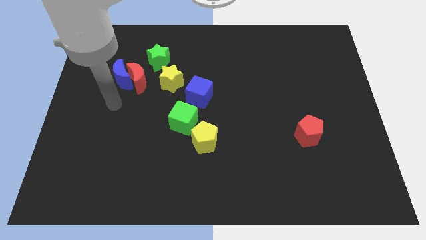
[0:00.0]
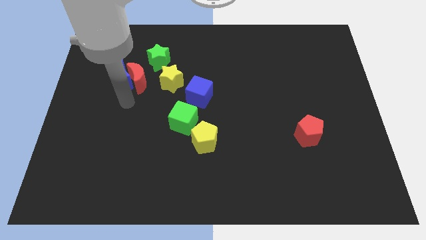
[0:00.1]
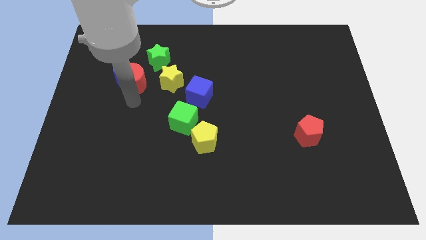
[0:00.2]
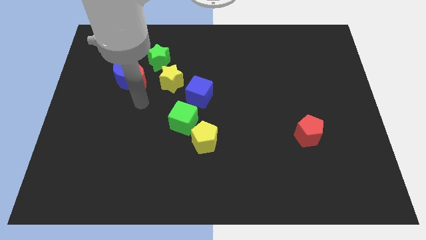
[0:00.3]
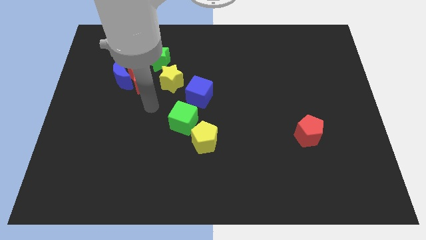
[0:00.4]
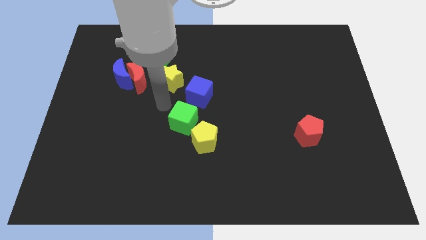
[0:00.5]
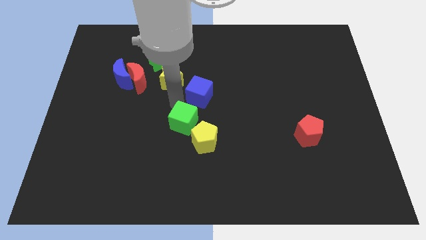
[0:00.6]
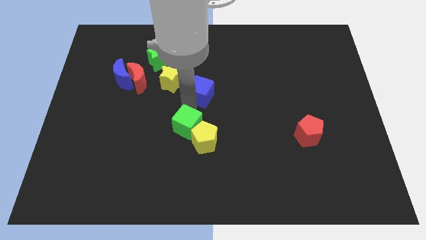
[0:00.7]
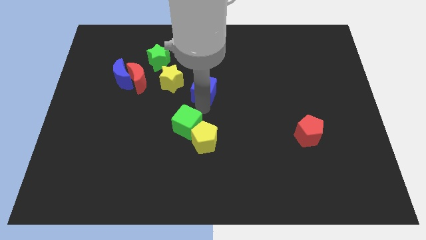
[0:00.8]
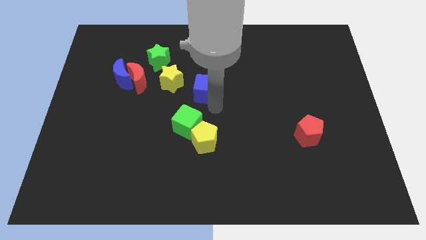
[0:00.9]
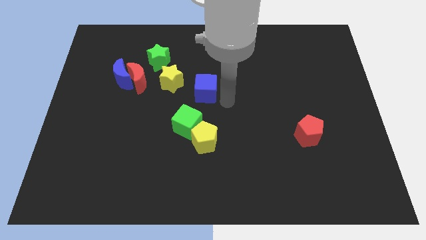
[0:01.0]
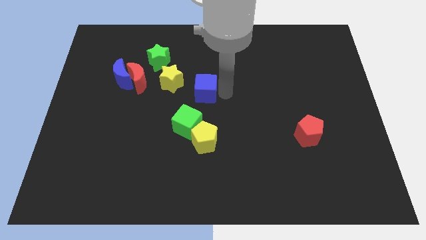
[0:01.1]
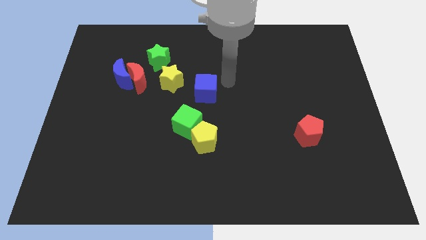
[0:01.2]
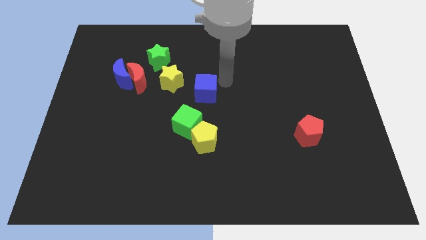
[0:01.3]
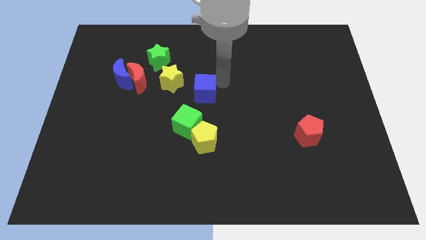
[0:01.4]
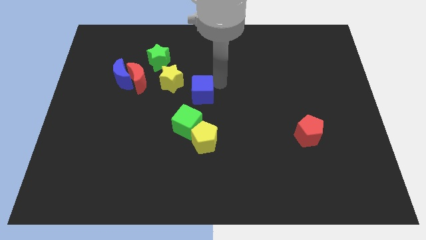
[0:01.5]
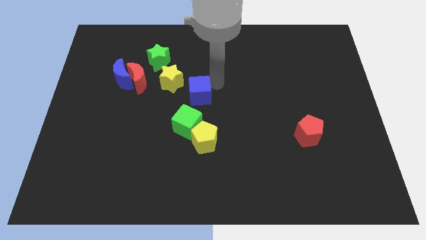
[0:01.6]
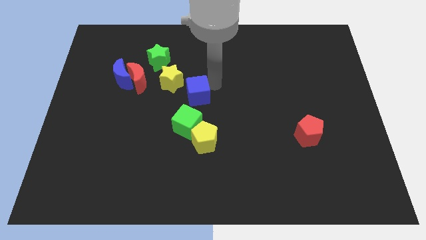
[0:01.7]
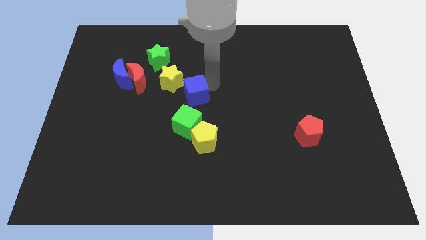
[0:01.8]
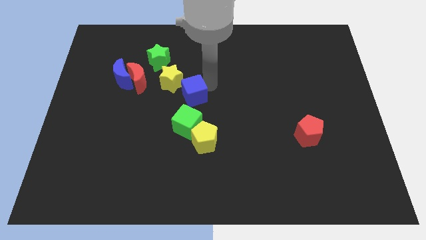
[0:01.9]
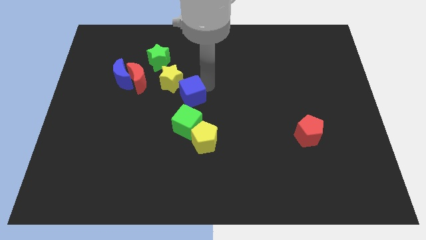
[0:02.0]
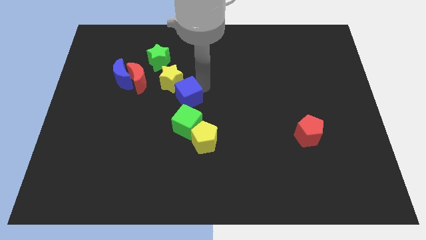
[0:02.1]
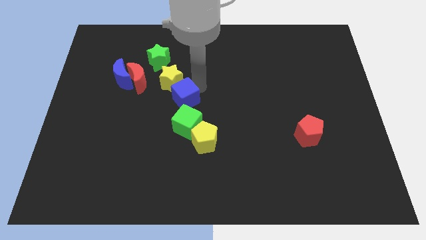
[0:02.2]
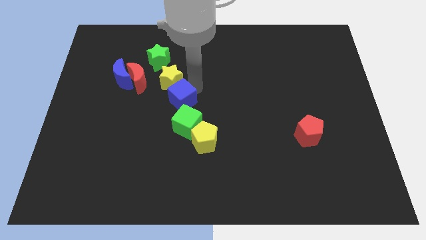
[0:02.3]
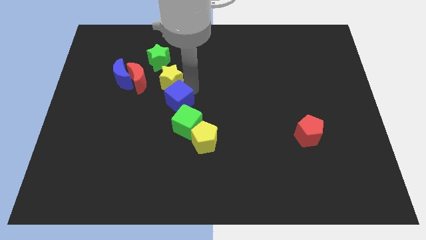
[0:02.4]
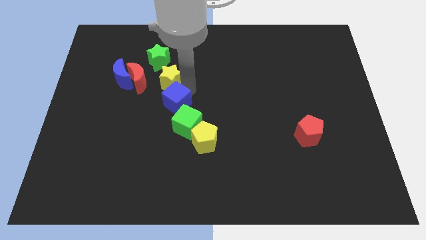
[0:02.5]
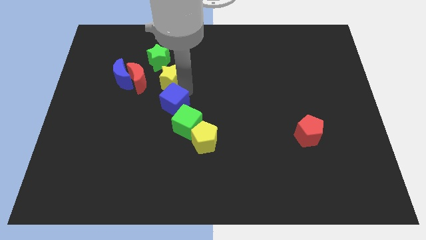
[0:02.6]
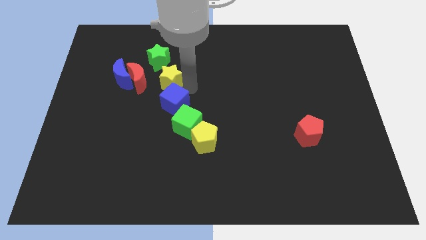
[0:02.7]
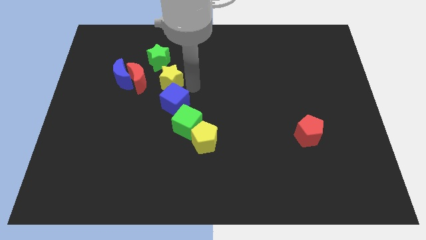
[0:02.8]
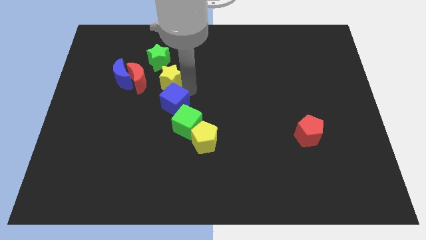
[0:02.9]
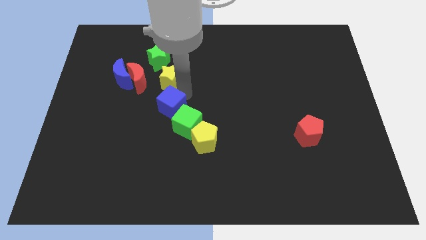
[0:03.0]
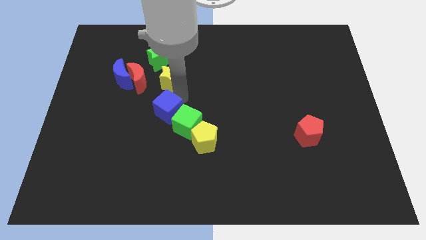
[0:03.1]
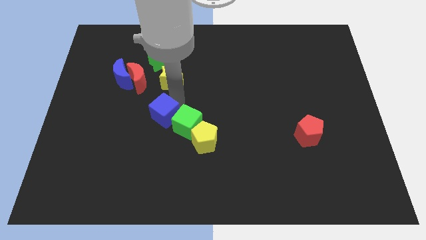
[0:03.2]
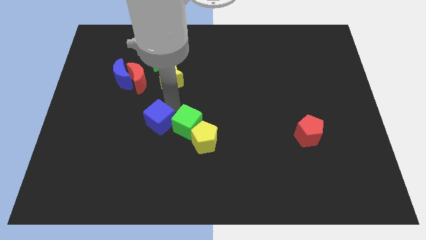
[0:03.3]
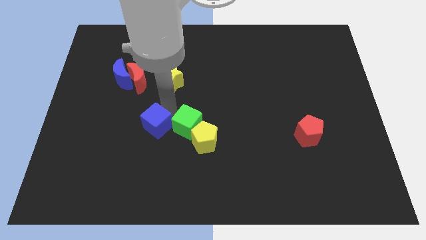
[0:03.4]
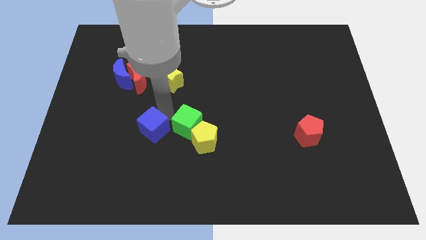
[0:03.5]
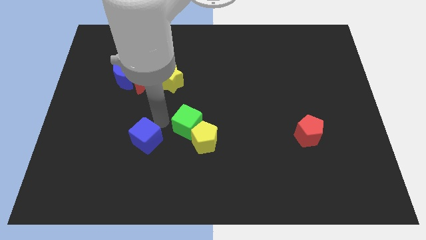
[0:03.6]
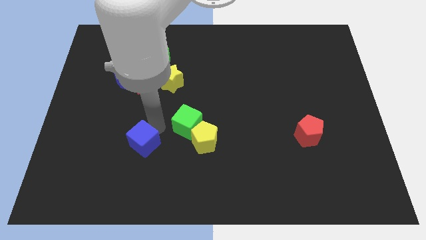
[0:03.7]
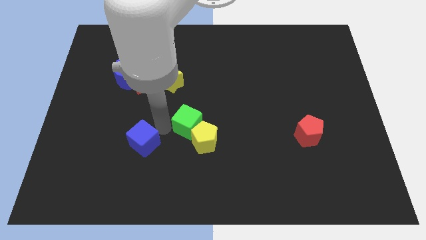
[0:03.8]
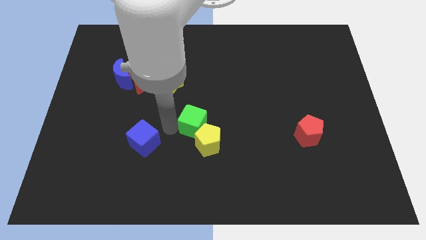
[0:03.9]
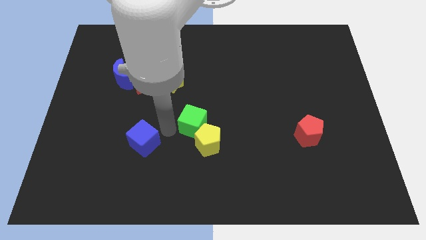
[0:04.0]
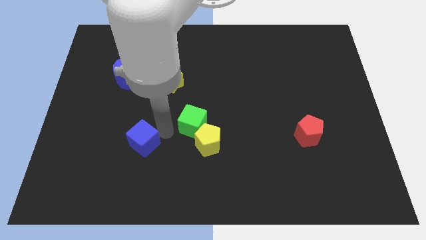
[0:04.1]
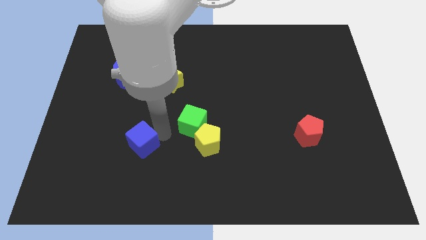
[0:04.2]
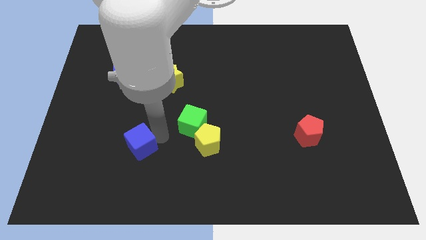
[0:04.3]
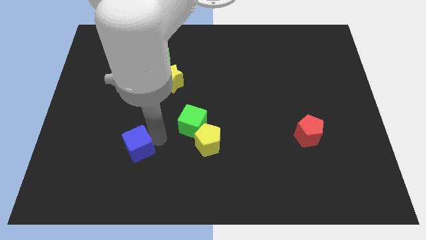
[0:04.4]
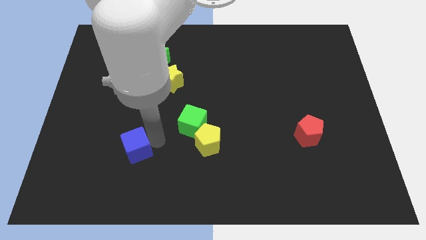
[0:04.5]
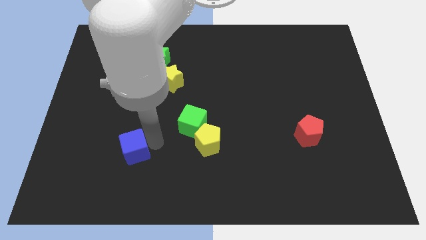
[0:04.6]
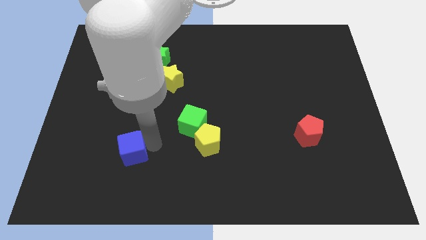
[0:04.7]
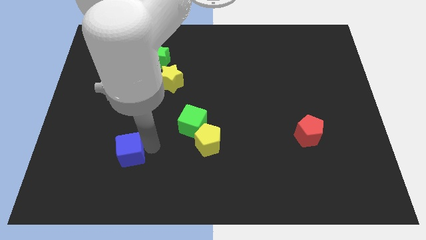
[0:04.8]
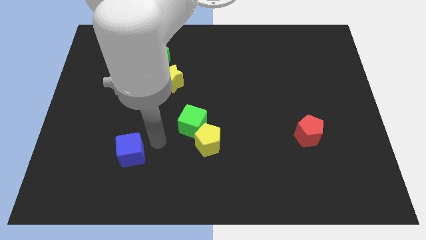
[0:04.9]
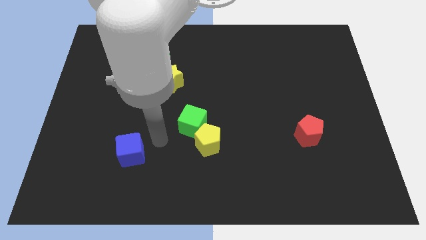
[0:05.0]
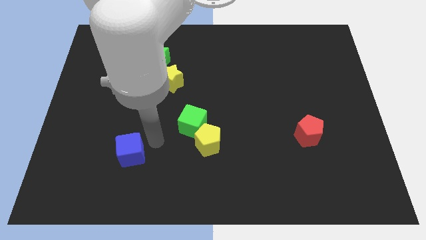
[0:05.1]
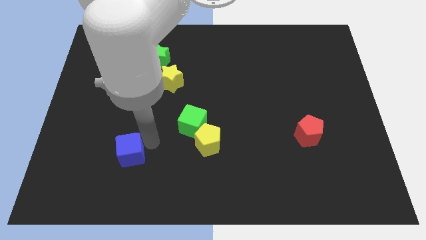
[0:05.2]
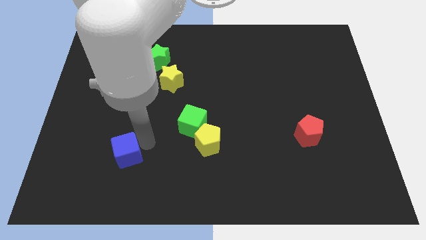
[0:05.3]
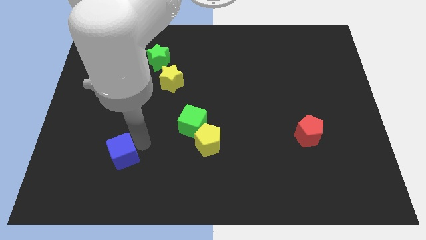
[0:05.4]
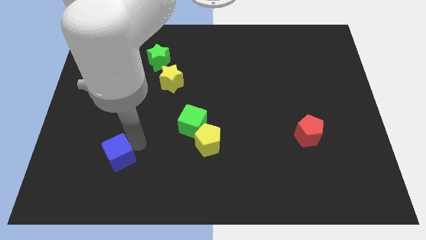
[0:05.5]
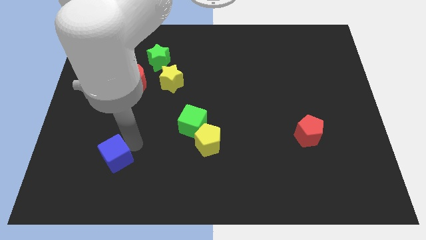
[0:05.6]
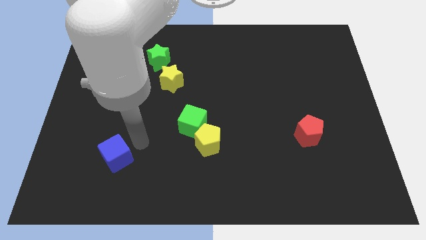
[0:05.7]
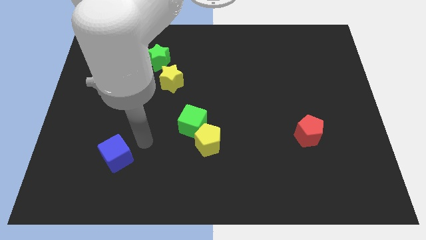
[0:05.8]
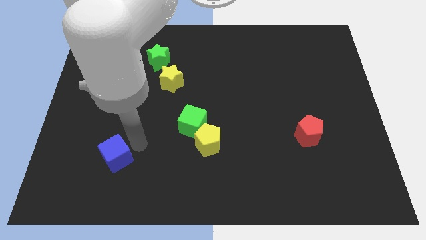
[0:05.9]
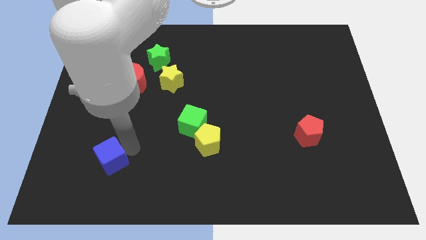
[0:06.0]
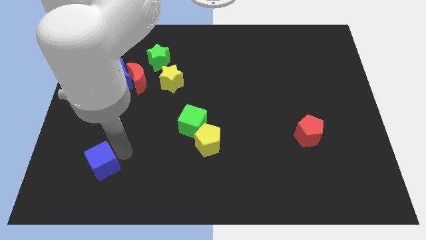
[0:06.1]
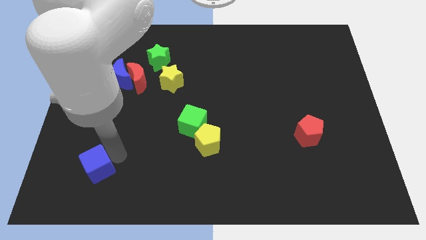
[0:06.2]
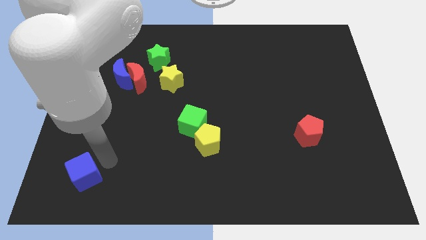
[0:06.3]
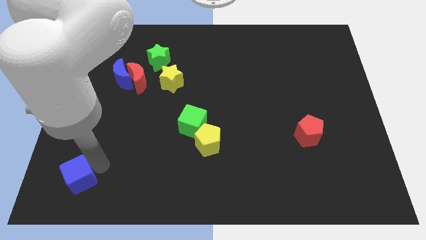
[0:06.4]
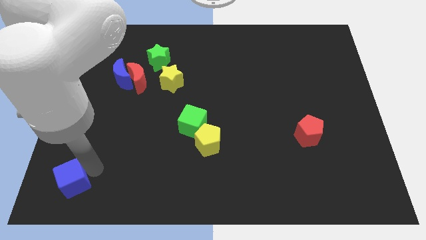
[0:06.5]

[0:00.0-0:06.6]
push the blue cube to the bottom left

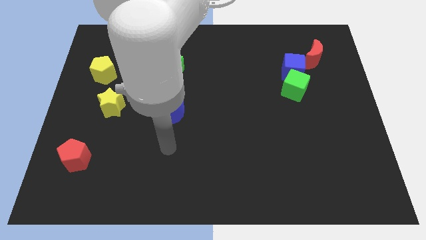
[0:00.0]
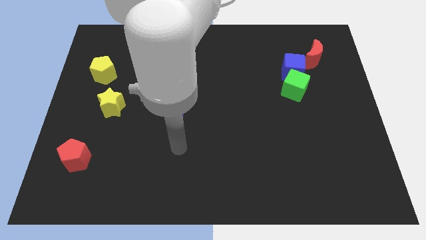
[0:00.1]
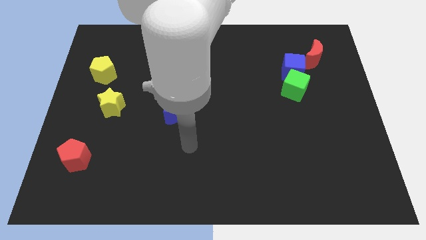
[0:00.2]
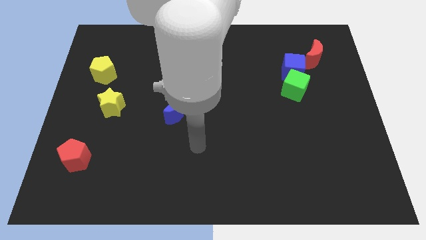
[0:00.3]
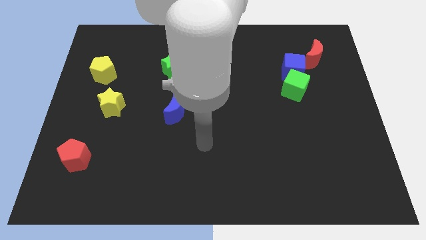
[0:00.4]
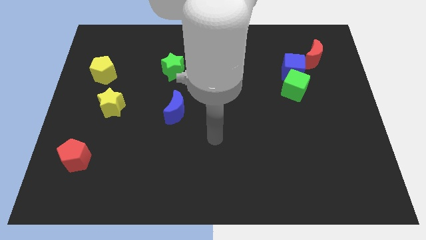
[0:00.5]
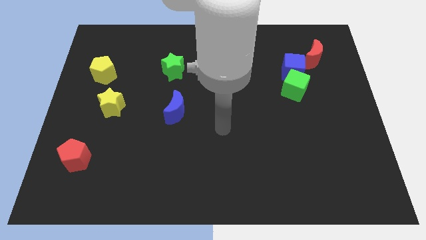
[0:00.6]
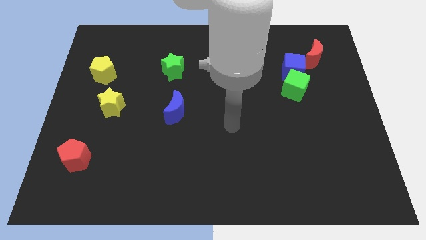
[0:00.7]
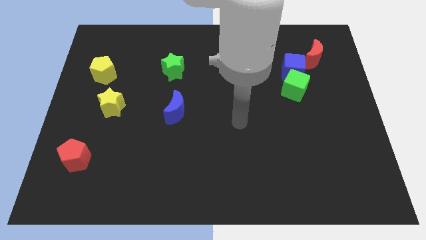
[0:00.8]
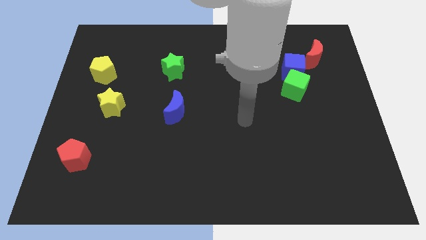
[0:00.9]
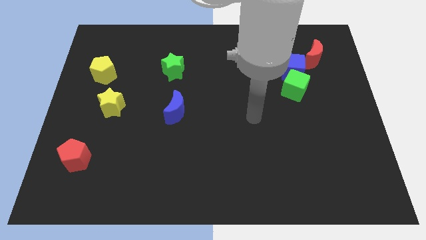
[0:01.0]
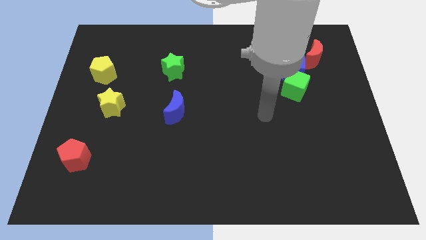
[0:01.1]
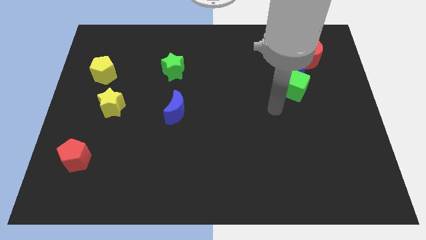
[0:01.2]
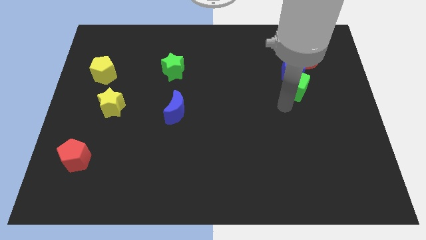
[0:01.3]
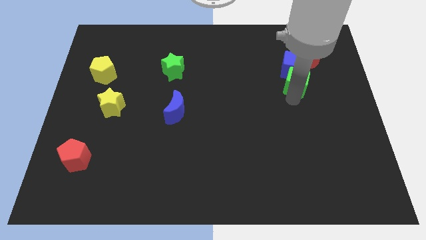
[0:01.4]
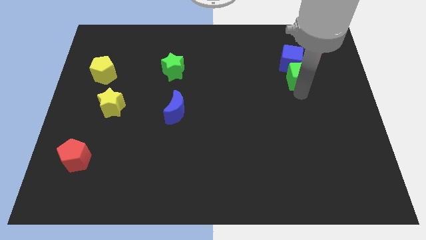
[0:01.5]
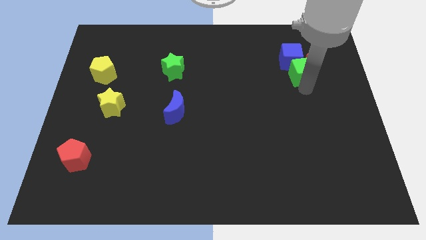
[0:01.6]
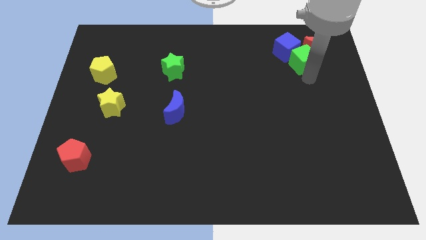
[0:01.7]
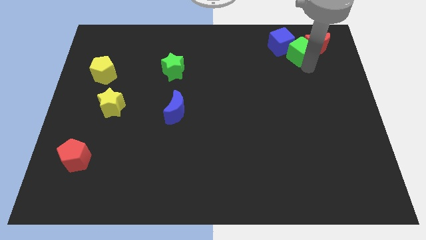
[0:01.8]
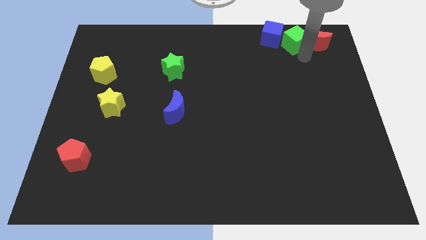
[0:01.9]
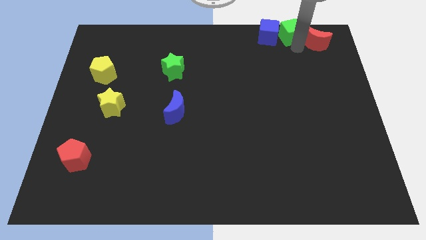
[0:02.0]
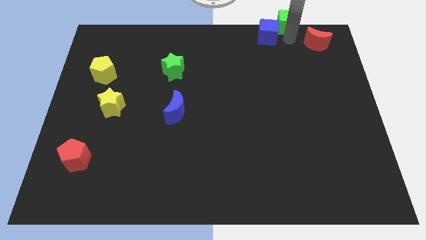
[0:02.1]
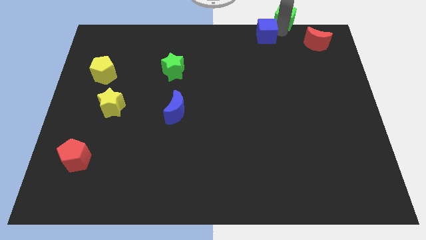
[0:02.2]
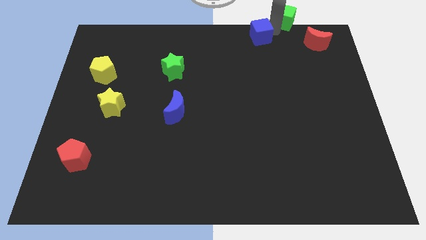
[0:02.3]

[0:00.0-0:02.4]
push the blue cube to the top
